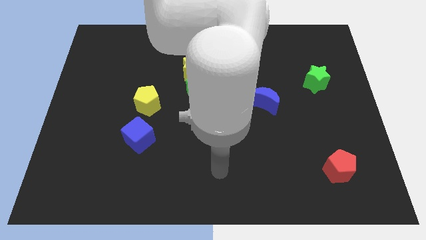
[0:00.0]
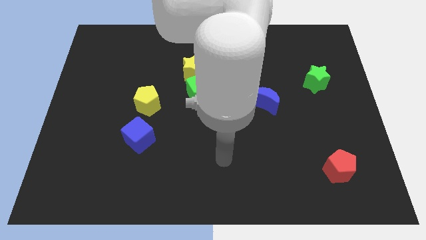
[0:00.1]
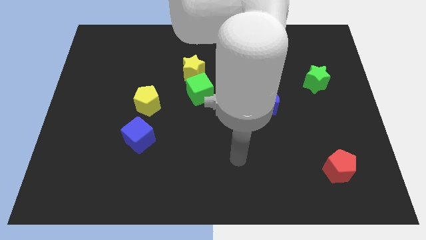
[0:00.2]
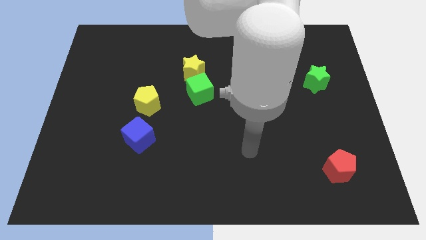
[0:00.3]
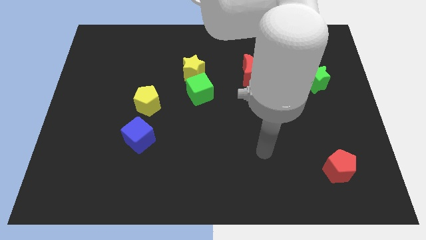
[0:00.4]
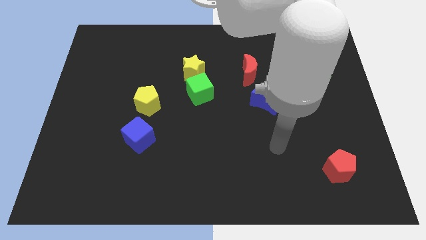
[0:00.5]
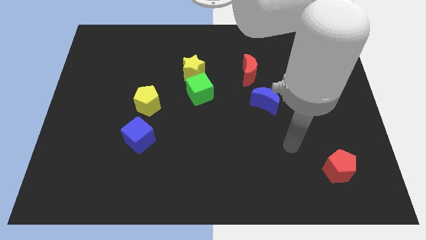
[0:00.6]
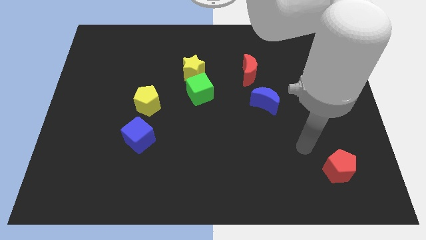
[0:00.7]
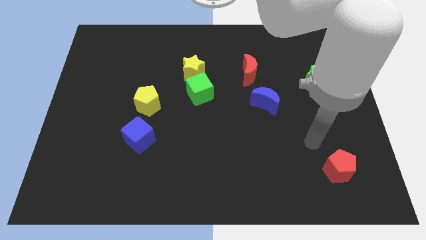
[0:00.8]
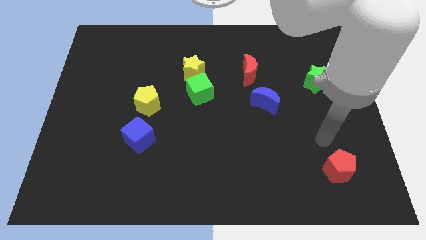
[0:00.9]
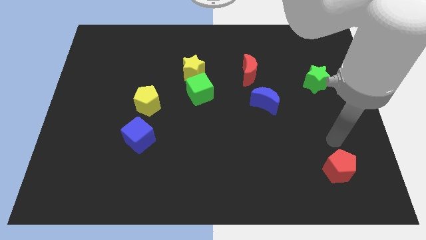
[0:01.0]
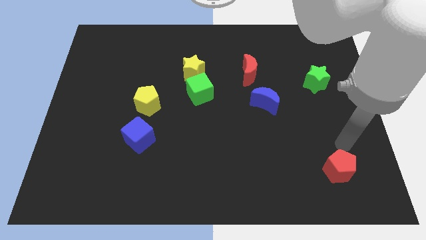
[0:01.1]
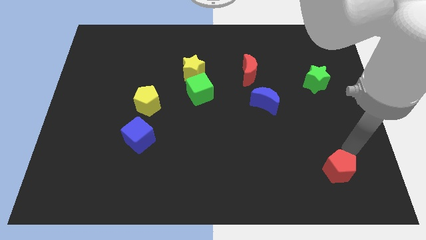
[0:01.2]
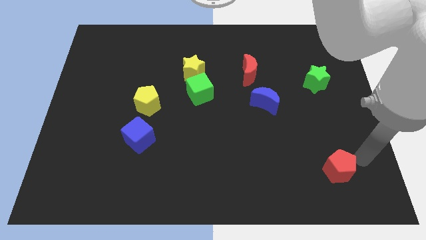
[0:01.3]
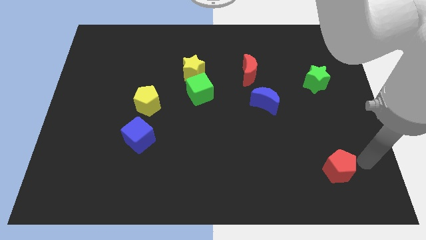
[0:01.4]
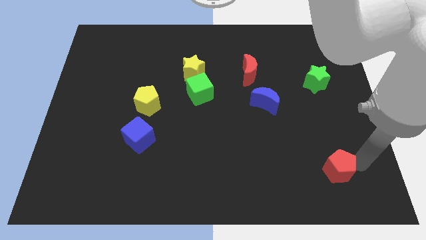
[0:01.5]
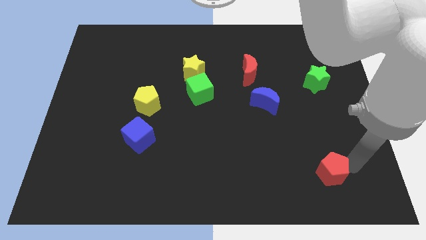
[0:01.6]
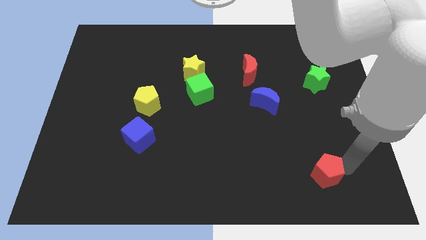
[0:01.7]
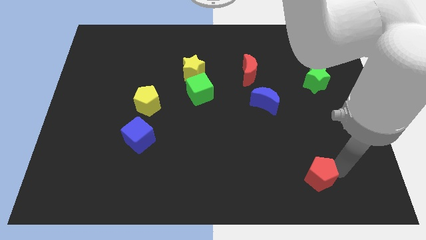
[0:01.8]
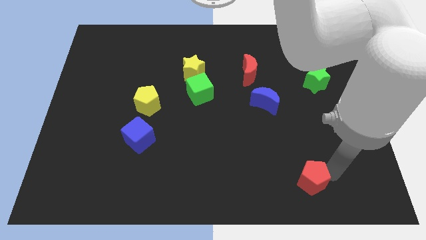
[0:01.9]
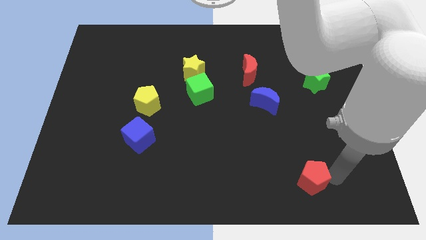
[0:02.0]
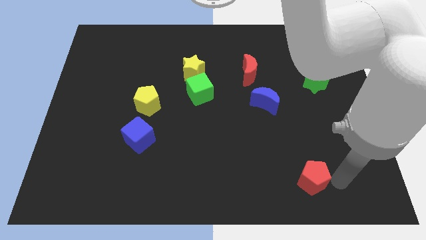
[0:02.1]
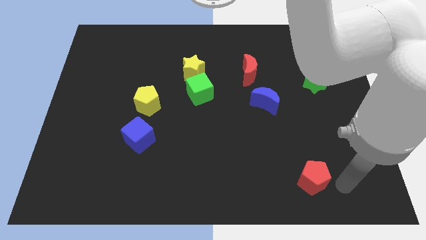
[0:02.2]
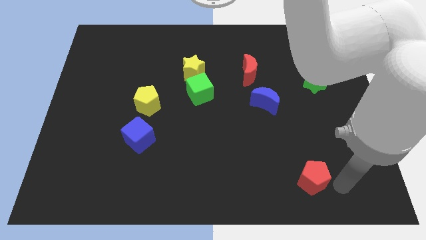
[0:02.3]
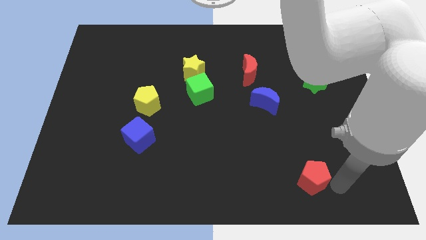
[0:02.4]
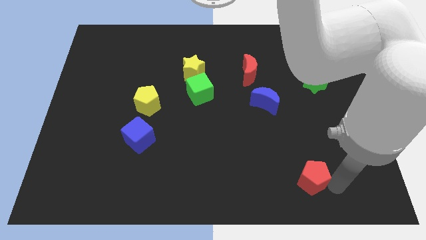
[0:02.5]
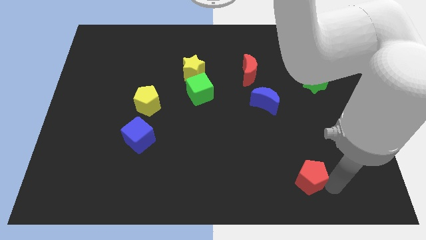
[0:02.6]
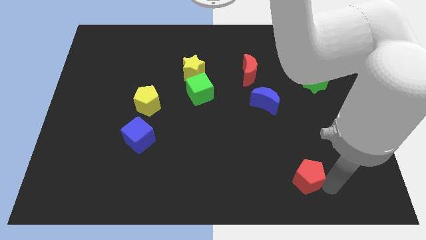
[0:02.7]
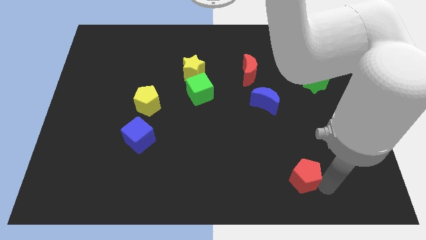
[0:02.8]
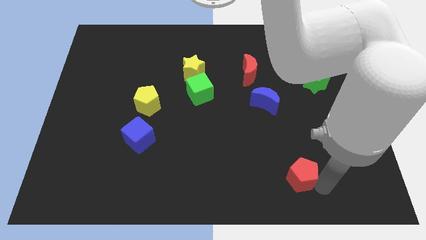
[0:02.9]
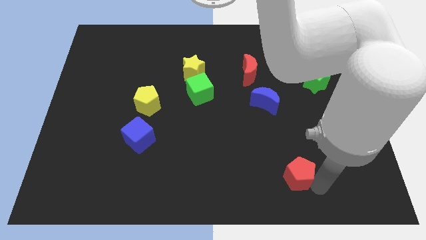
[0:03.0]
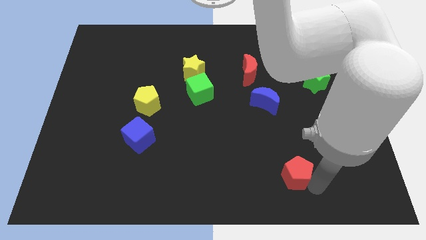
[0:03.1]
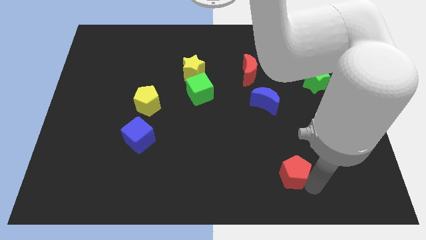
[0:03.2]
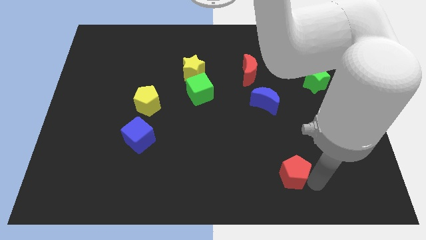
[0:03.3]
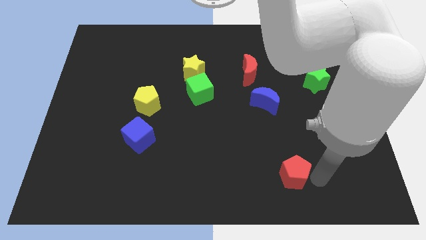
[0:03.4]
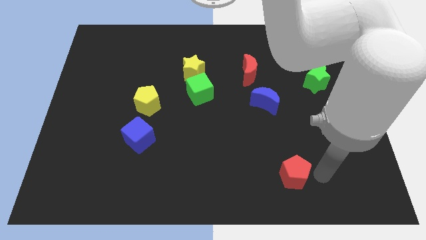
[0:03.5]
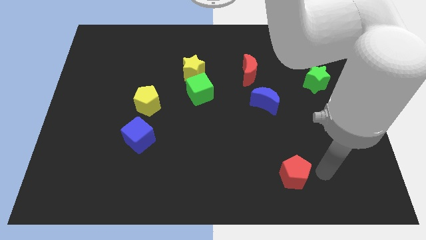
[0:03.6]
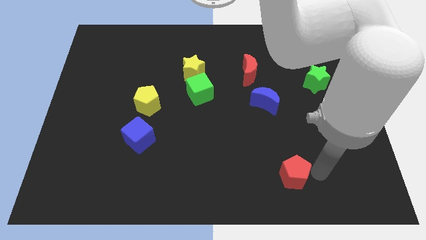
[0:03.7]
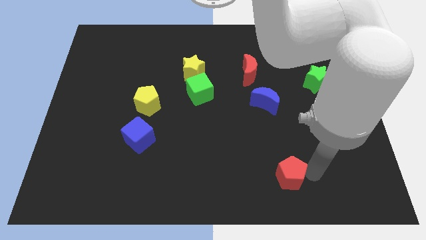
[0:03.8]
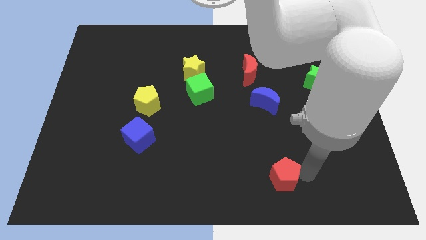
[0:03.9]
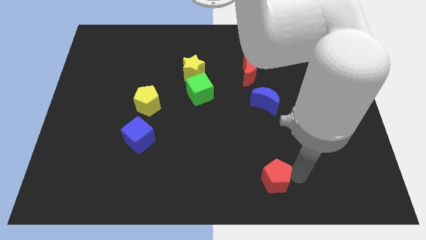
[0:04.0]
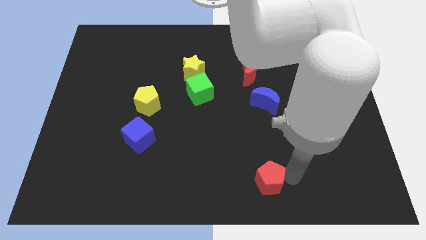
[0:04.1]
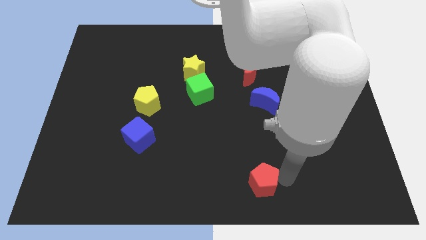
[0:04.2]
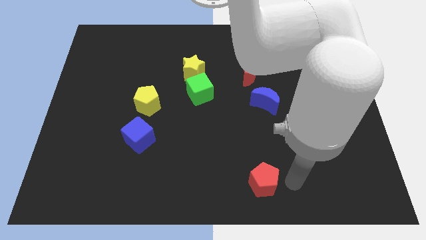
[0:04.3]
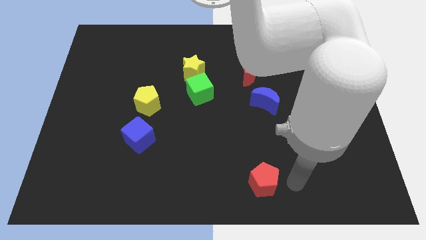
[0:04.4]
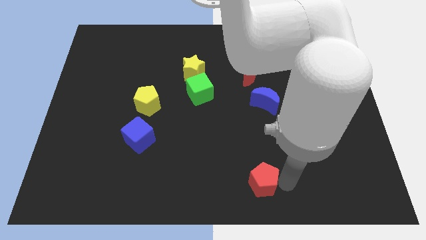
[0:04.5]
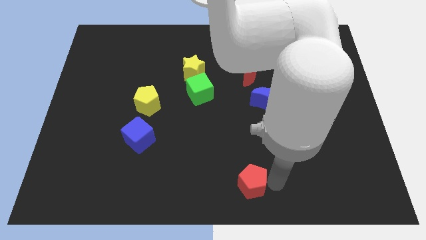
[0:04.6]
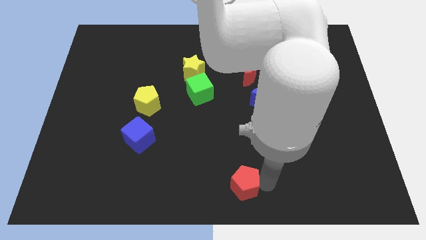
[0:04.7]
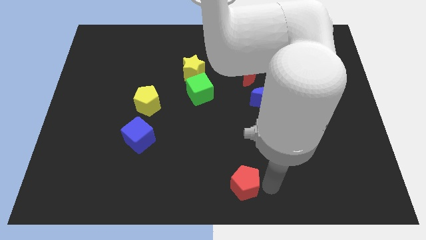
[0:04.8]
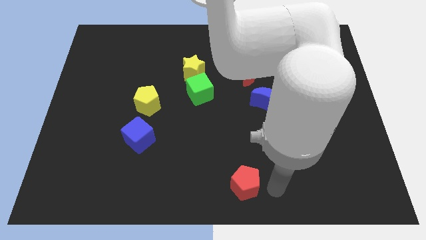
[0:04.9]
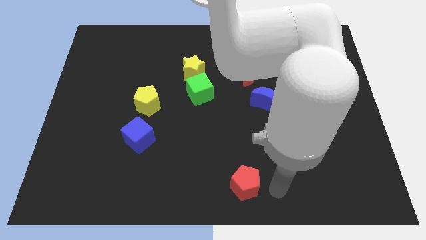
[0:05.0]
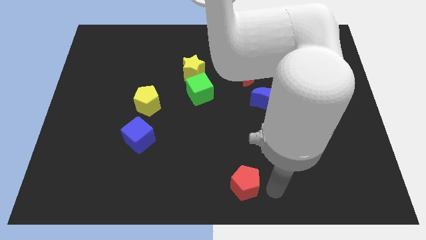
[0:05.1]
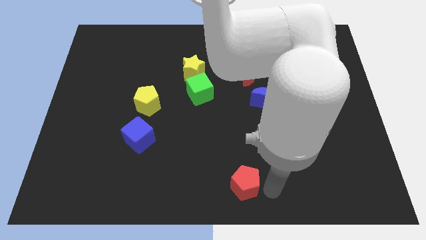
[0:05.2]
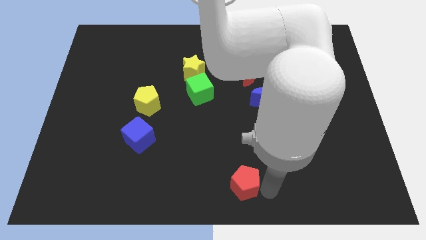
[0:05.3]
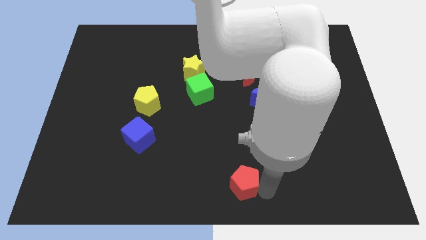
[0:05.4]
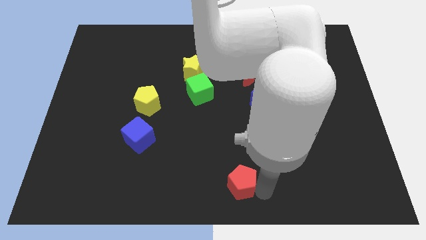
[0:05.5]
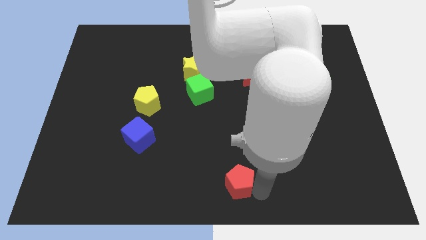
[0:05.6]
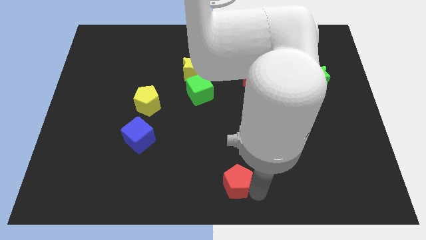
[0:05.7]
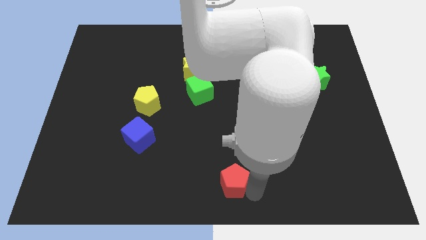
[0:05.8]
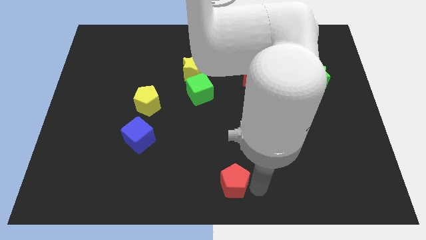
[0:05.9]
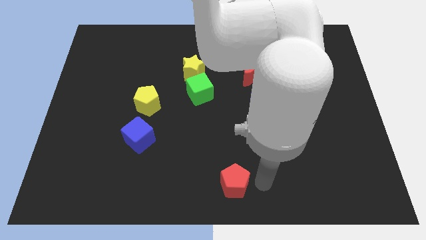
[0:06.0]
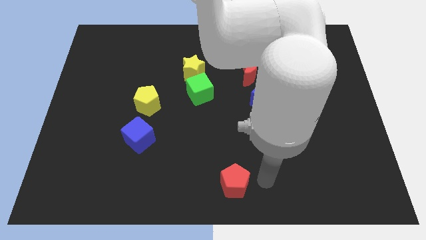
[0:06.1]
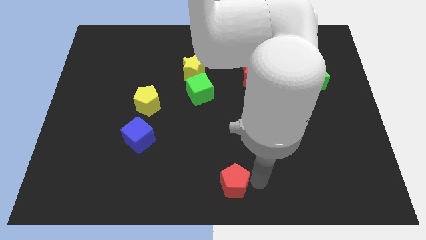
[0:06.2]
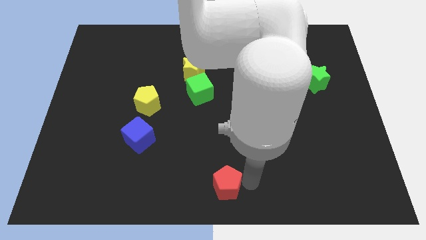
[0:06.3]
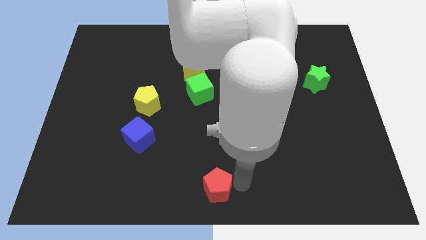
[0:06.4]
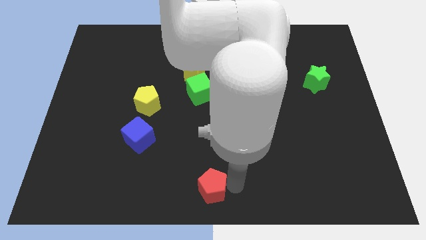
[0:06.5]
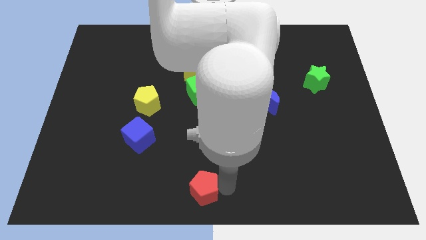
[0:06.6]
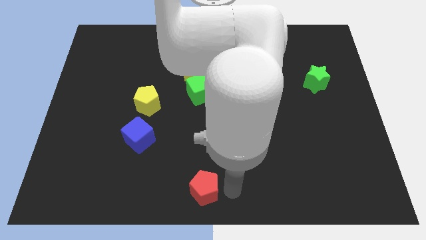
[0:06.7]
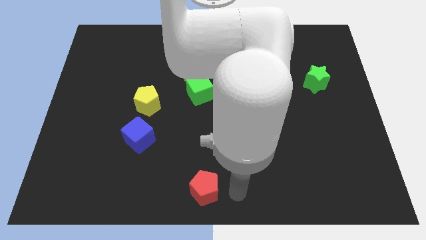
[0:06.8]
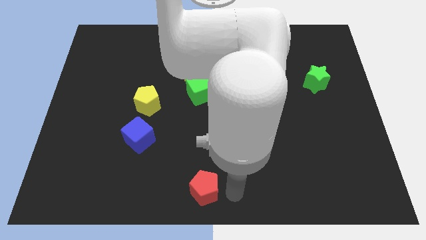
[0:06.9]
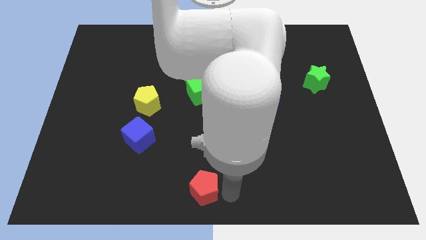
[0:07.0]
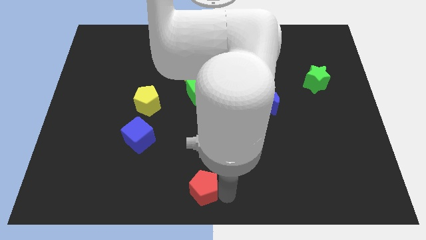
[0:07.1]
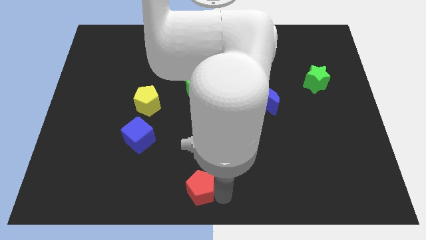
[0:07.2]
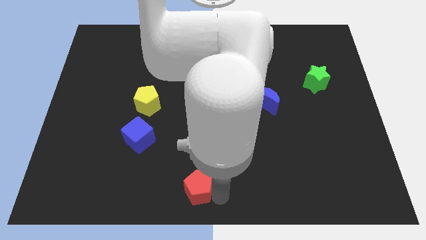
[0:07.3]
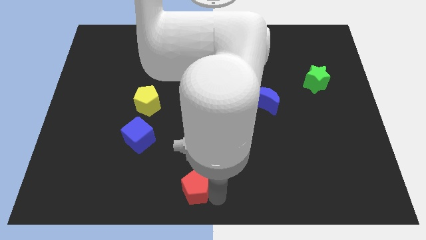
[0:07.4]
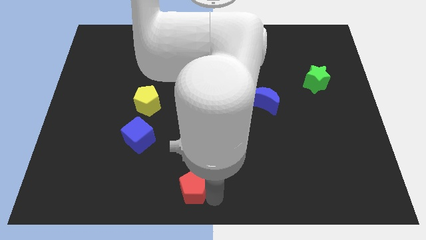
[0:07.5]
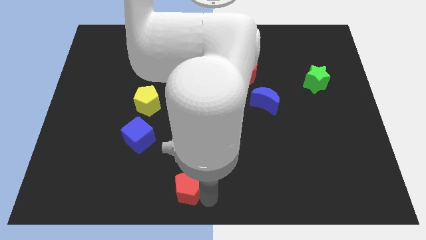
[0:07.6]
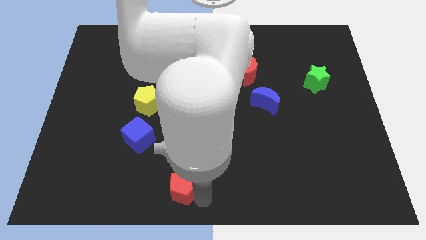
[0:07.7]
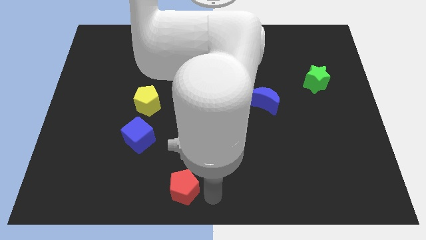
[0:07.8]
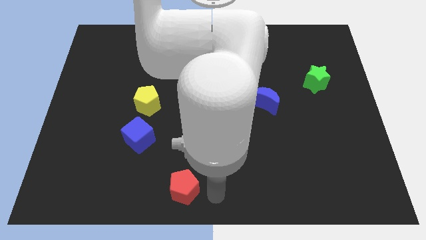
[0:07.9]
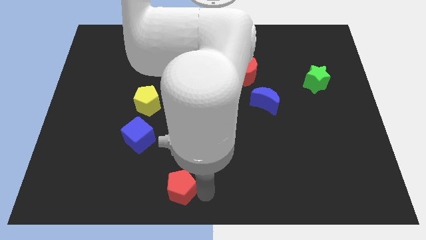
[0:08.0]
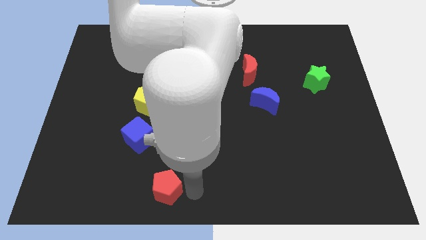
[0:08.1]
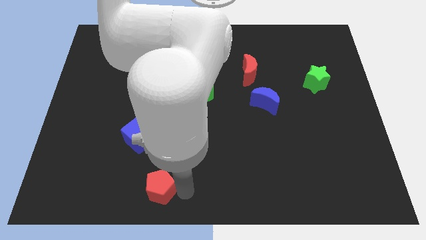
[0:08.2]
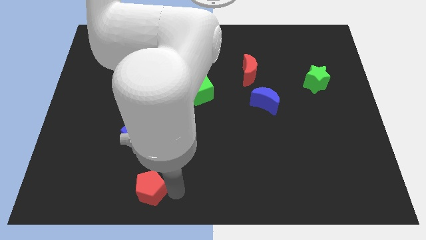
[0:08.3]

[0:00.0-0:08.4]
push the red pentagon below the blue cube
